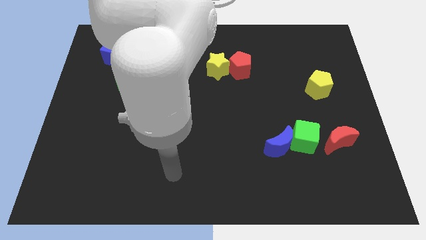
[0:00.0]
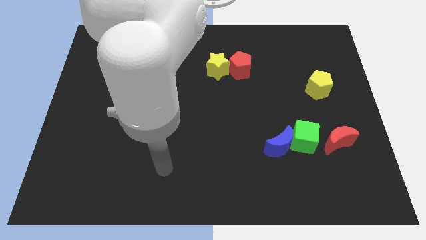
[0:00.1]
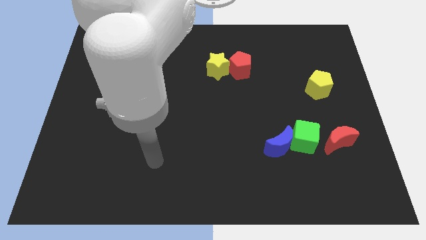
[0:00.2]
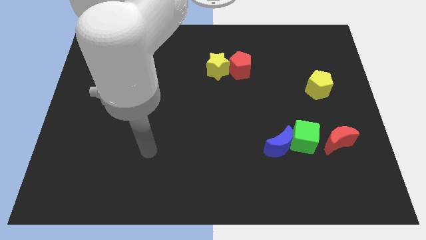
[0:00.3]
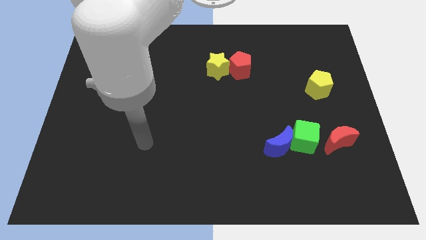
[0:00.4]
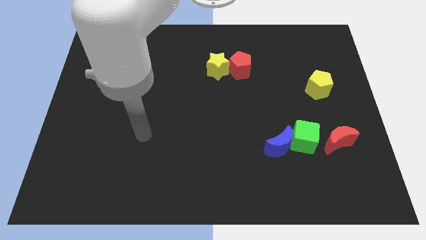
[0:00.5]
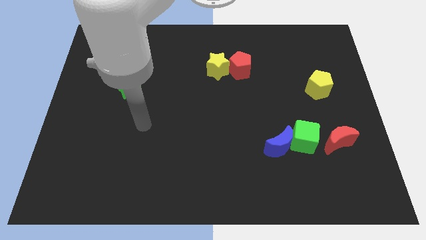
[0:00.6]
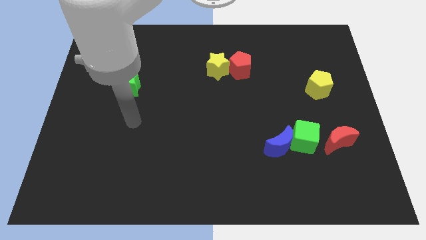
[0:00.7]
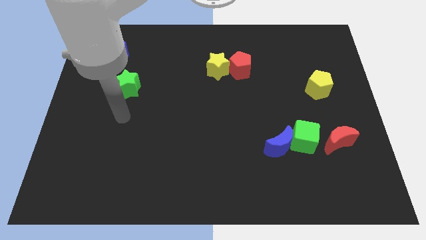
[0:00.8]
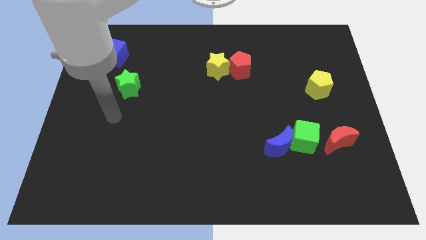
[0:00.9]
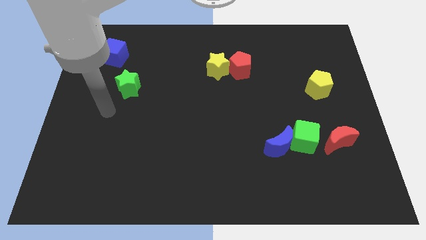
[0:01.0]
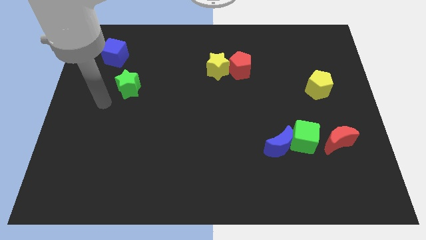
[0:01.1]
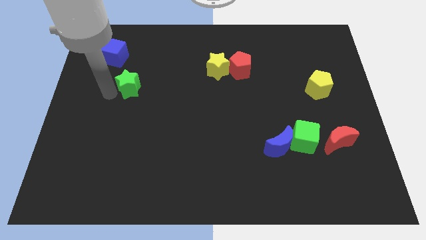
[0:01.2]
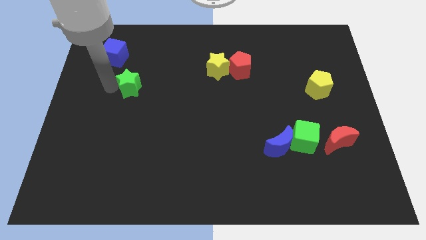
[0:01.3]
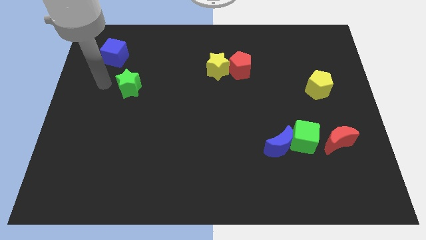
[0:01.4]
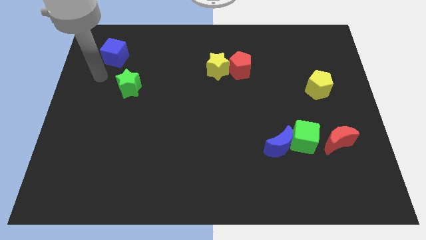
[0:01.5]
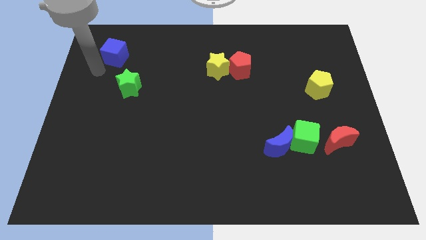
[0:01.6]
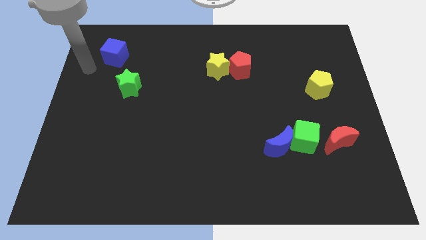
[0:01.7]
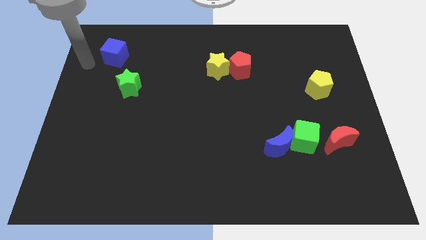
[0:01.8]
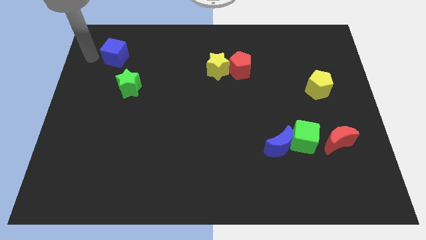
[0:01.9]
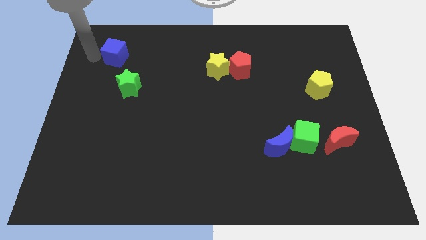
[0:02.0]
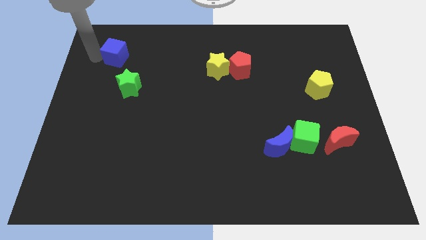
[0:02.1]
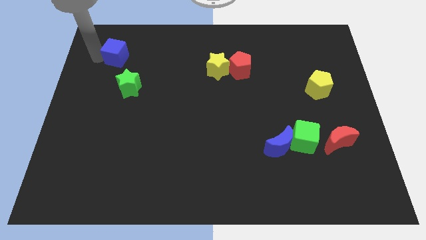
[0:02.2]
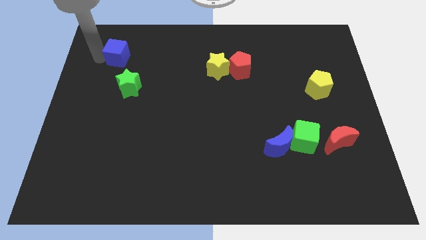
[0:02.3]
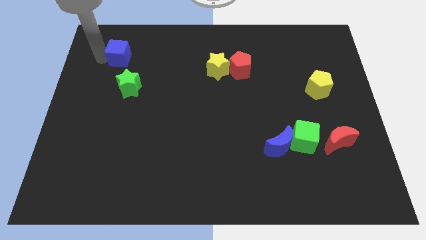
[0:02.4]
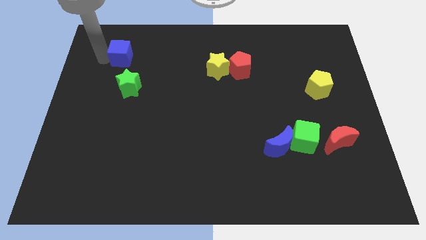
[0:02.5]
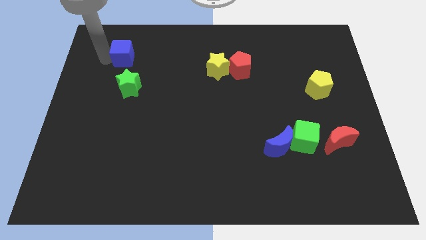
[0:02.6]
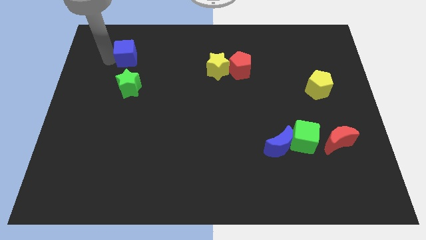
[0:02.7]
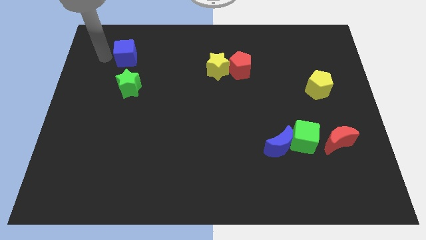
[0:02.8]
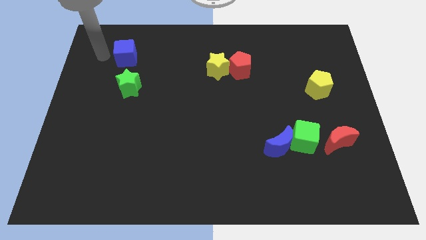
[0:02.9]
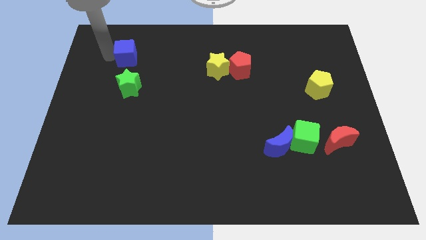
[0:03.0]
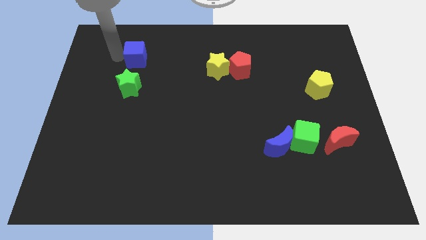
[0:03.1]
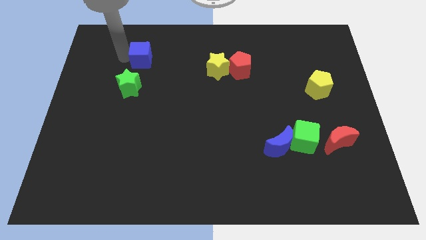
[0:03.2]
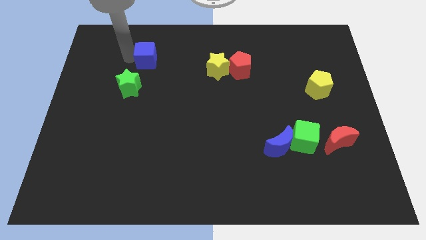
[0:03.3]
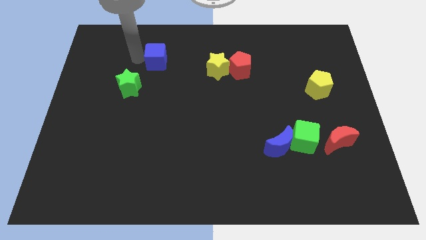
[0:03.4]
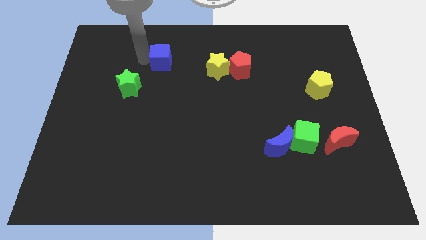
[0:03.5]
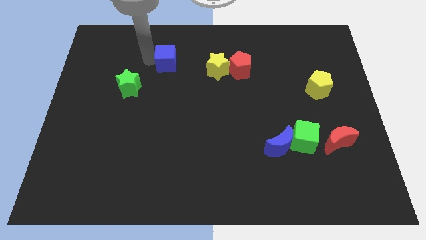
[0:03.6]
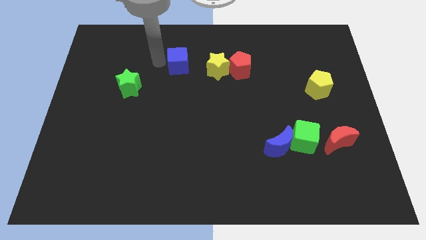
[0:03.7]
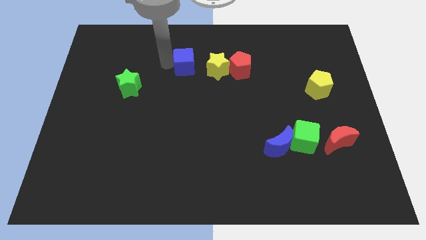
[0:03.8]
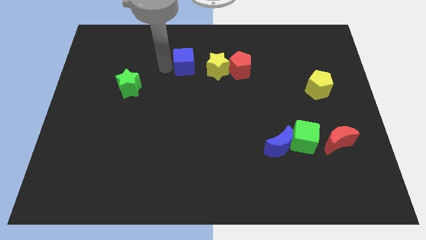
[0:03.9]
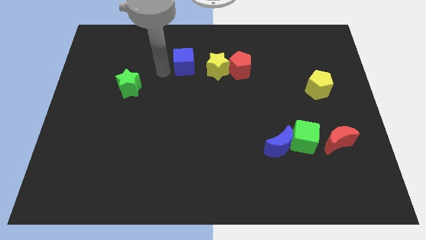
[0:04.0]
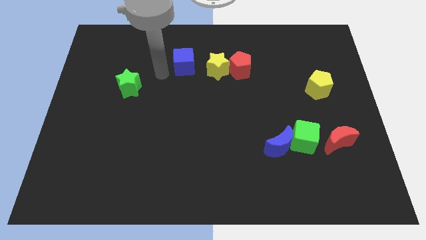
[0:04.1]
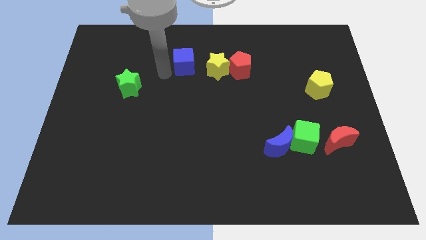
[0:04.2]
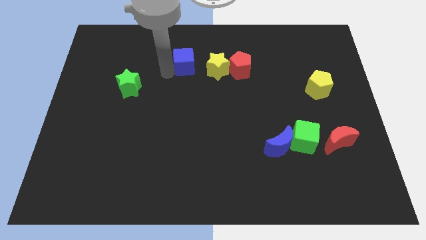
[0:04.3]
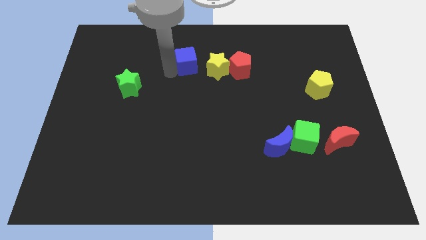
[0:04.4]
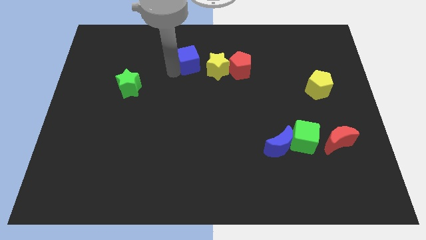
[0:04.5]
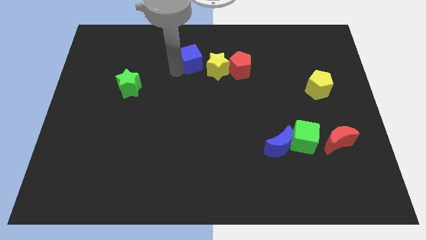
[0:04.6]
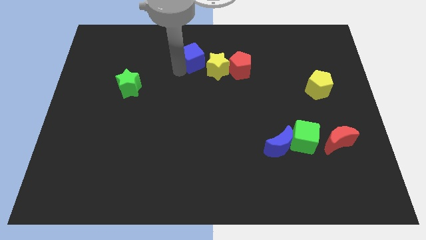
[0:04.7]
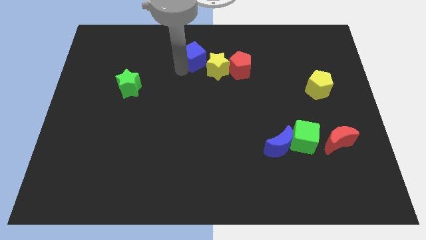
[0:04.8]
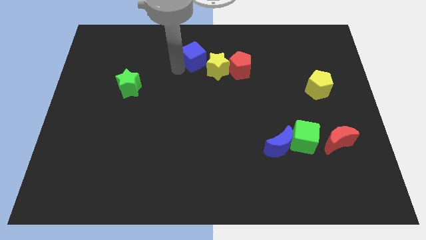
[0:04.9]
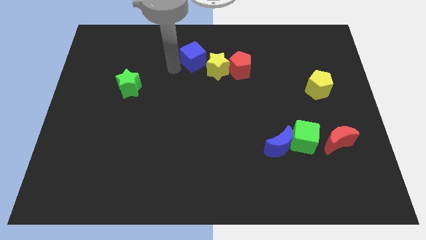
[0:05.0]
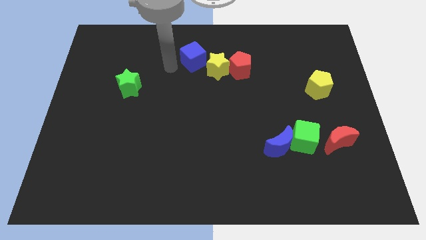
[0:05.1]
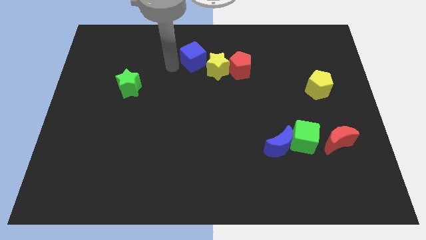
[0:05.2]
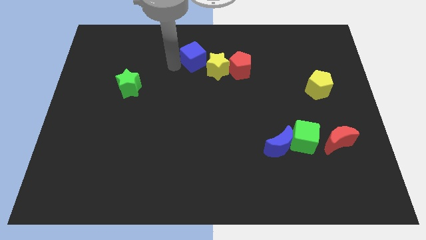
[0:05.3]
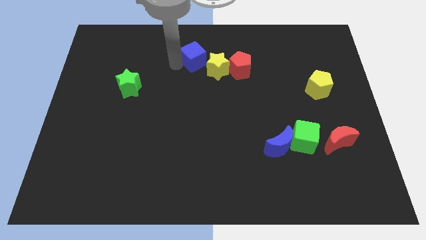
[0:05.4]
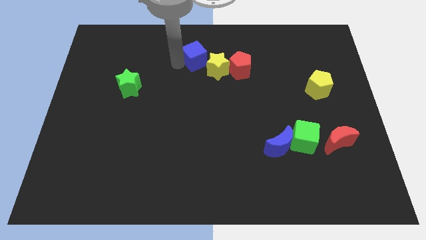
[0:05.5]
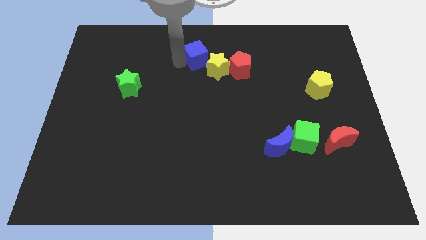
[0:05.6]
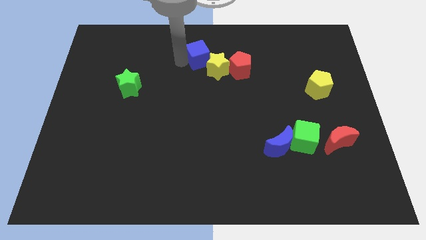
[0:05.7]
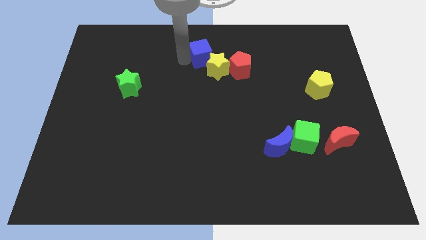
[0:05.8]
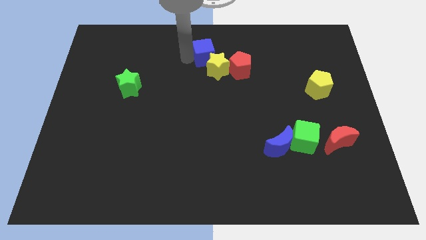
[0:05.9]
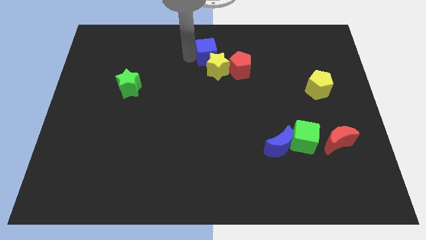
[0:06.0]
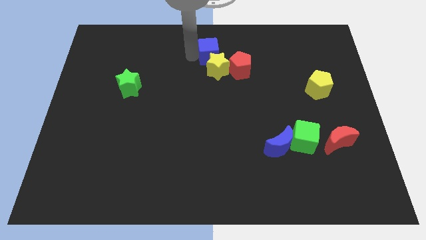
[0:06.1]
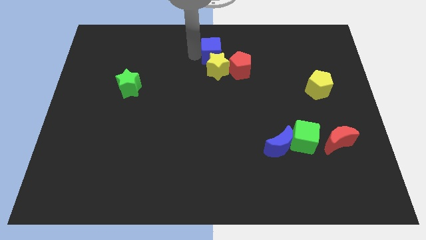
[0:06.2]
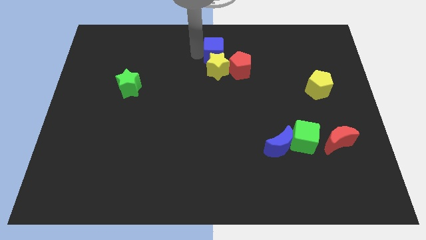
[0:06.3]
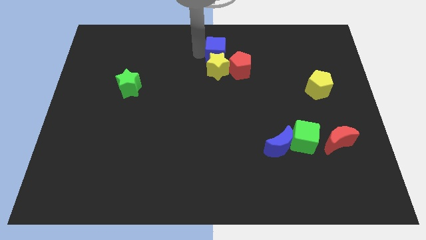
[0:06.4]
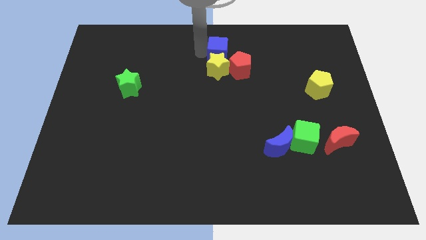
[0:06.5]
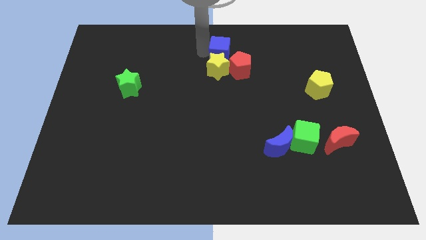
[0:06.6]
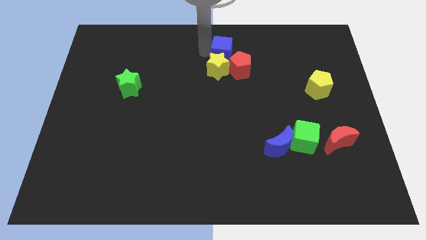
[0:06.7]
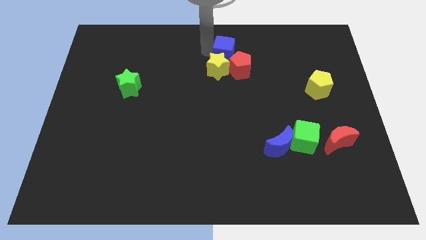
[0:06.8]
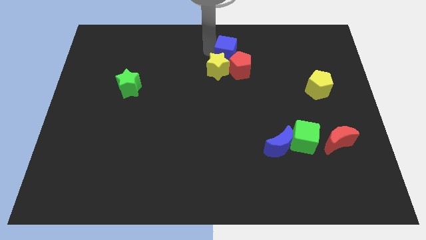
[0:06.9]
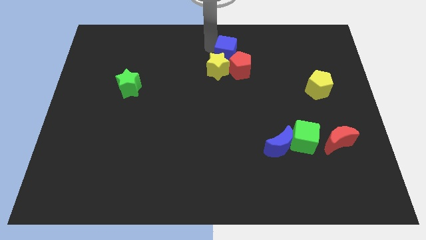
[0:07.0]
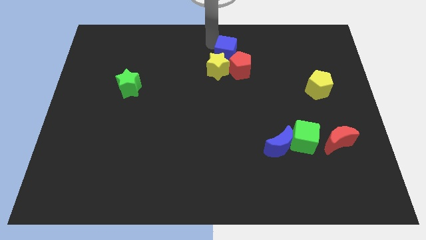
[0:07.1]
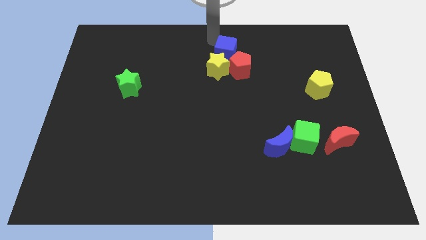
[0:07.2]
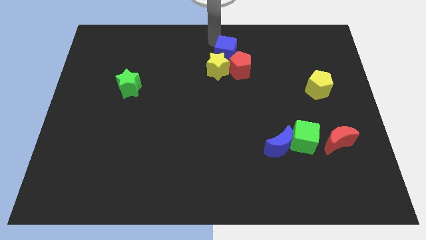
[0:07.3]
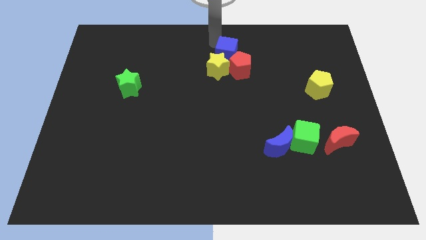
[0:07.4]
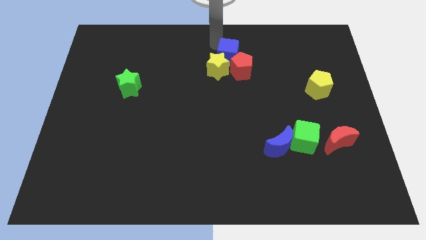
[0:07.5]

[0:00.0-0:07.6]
move the blue cube to the red pentagon
